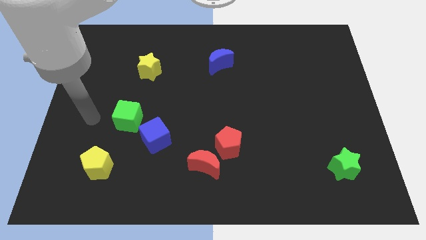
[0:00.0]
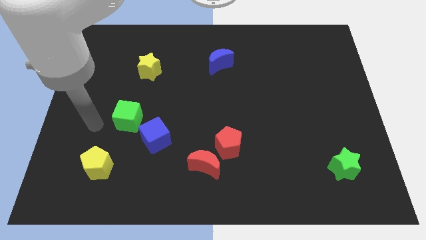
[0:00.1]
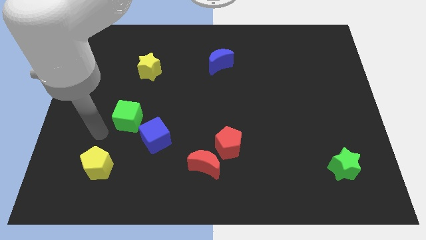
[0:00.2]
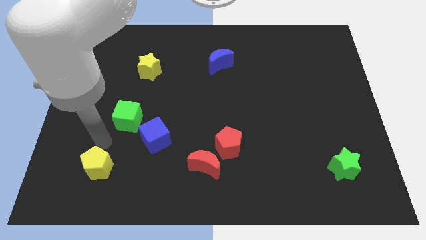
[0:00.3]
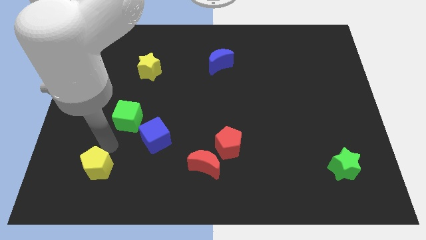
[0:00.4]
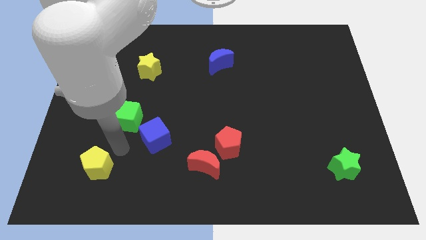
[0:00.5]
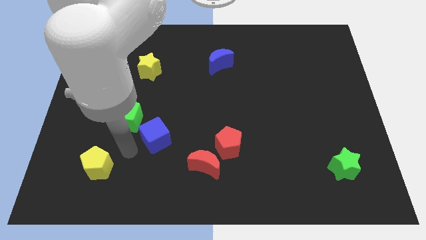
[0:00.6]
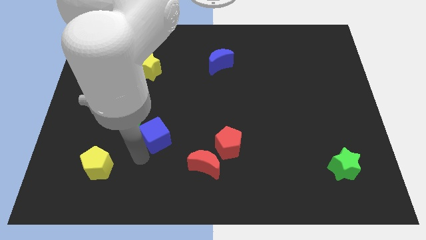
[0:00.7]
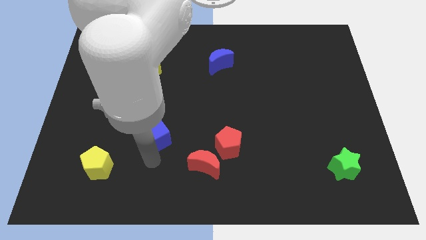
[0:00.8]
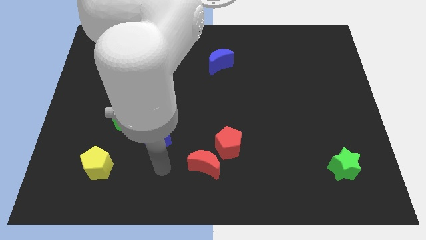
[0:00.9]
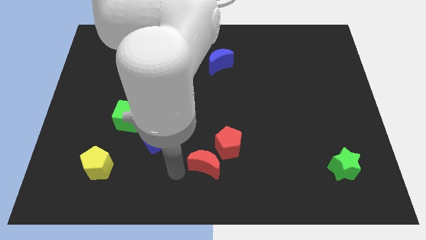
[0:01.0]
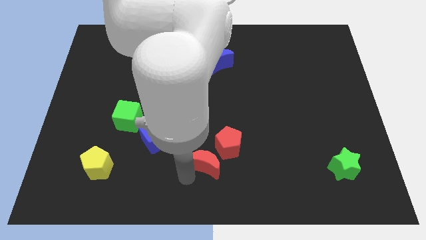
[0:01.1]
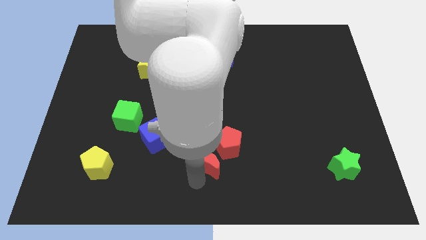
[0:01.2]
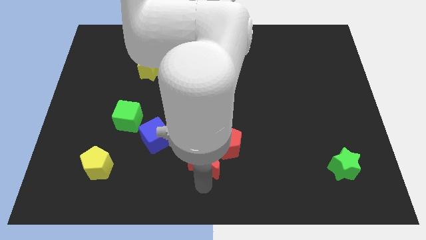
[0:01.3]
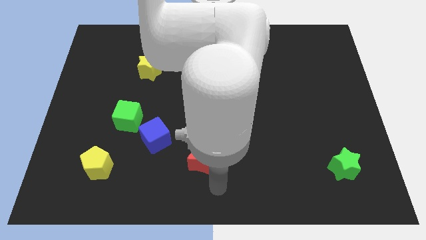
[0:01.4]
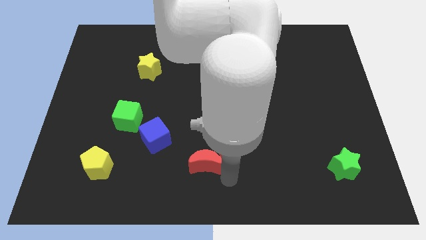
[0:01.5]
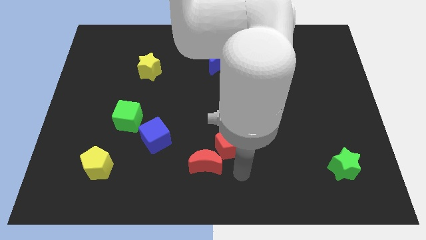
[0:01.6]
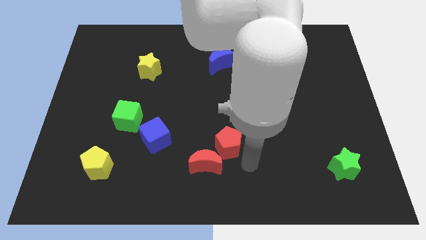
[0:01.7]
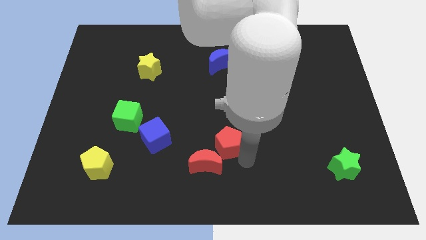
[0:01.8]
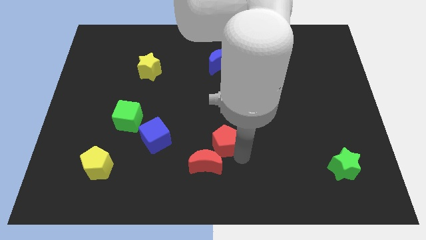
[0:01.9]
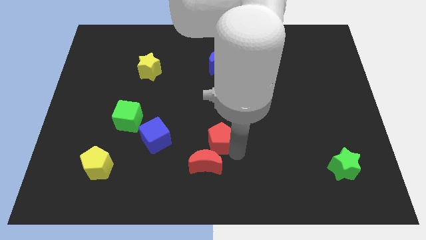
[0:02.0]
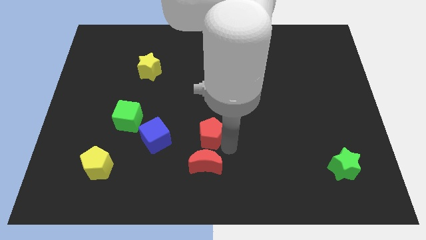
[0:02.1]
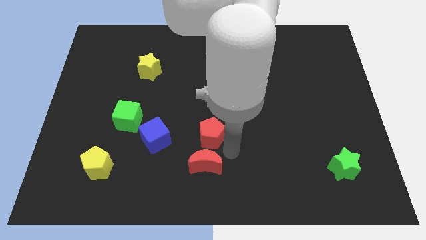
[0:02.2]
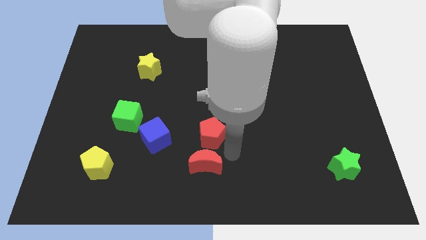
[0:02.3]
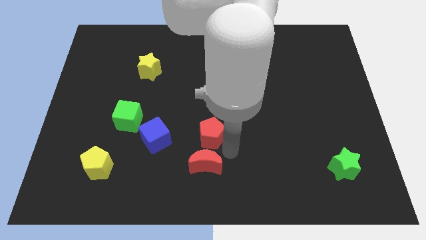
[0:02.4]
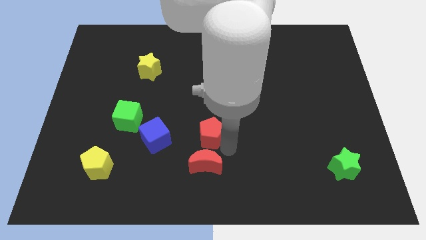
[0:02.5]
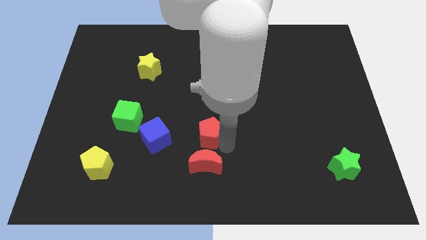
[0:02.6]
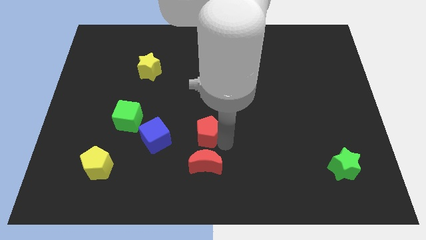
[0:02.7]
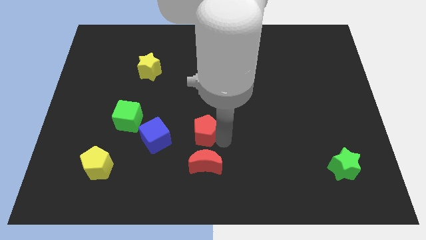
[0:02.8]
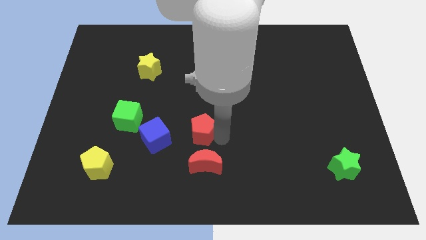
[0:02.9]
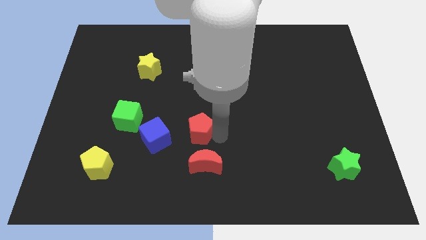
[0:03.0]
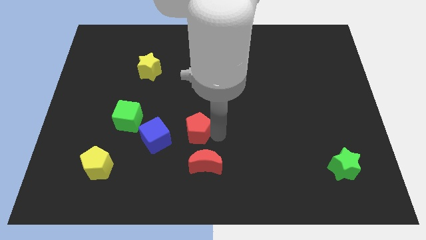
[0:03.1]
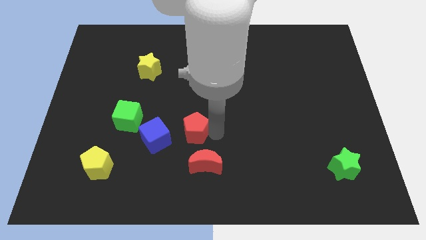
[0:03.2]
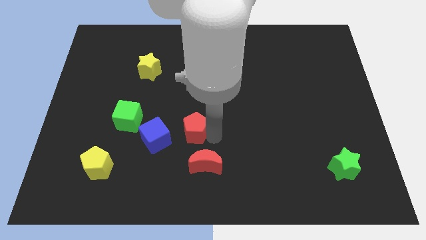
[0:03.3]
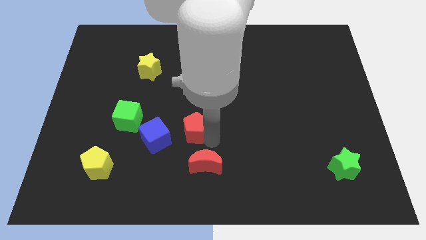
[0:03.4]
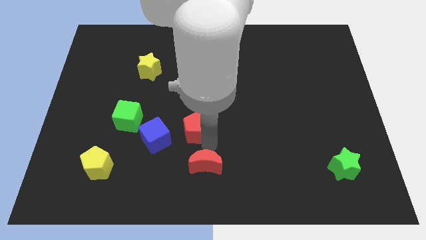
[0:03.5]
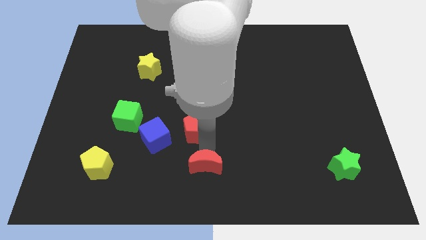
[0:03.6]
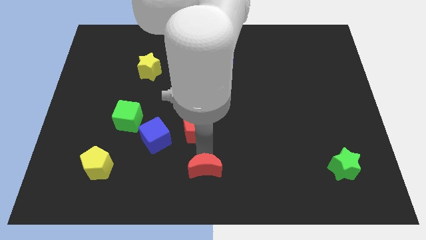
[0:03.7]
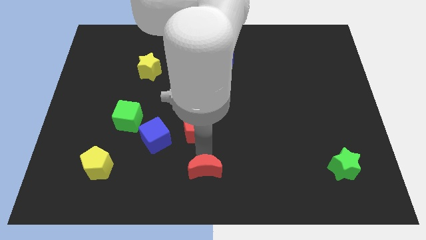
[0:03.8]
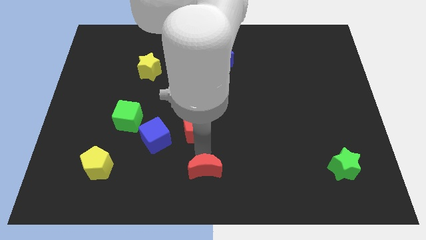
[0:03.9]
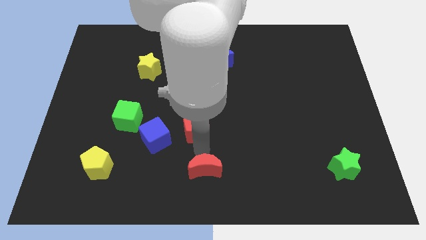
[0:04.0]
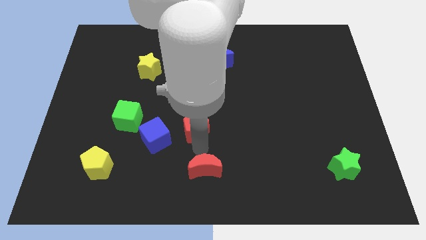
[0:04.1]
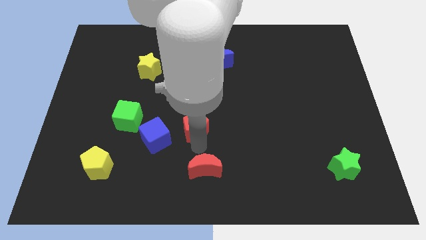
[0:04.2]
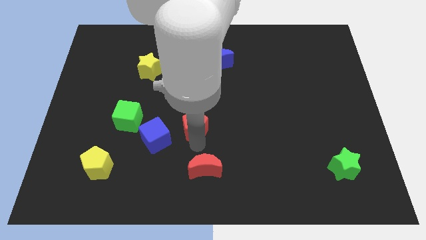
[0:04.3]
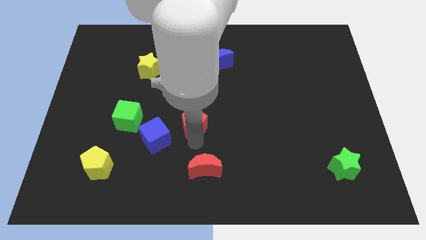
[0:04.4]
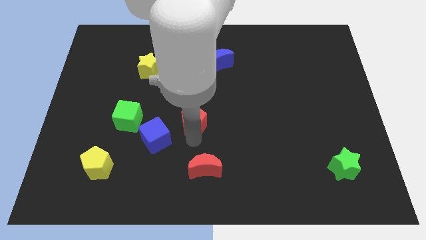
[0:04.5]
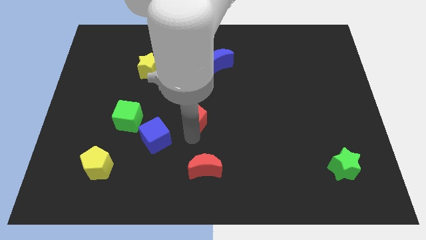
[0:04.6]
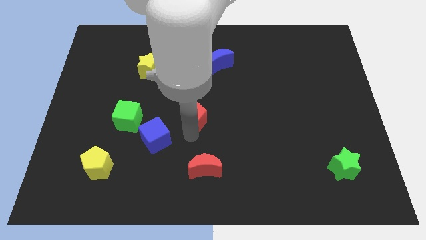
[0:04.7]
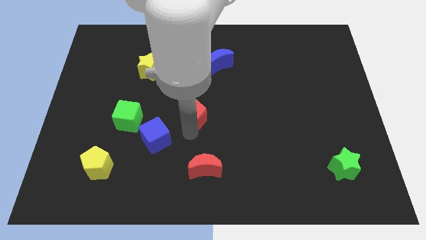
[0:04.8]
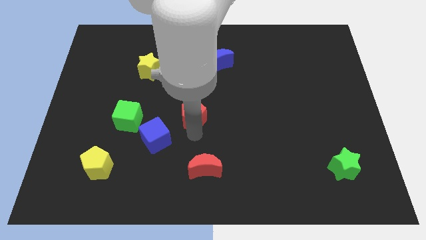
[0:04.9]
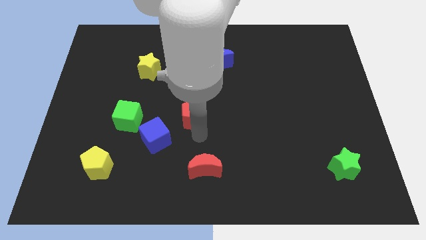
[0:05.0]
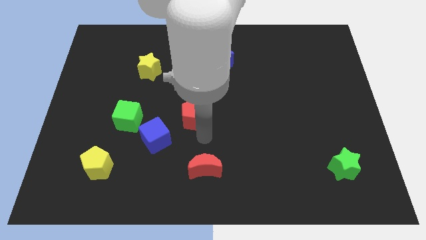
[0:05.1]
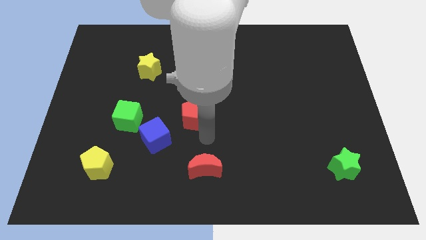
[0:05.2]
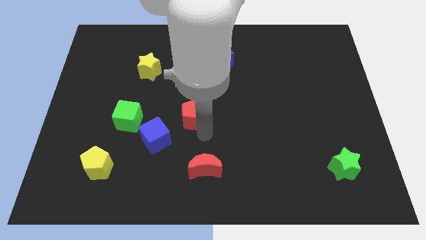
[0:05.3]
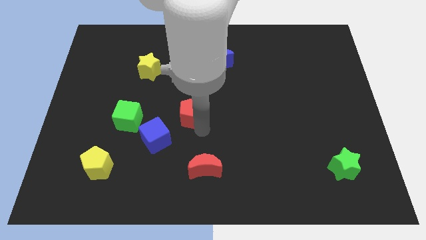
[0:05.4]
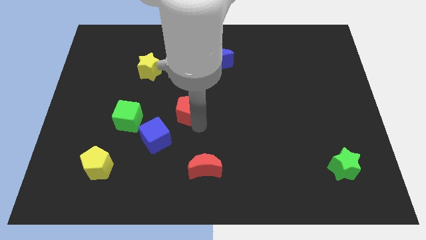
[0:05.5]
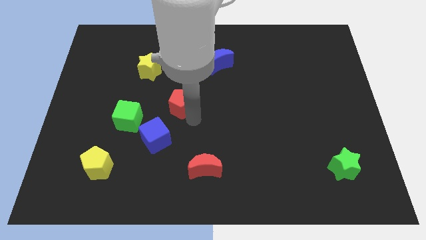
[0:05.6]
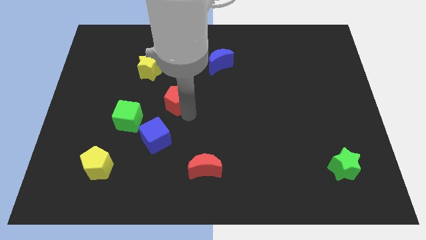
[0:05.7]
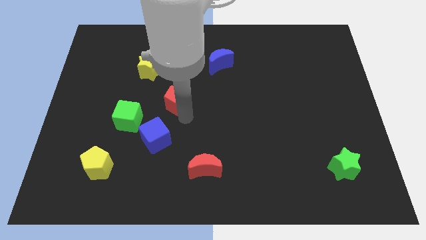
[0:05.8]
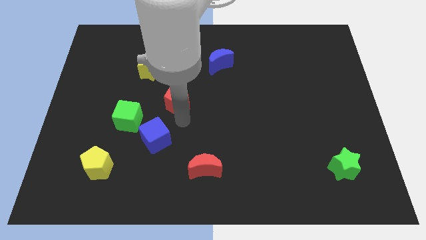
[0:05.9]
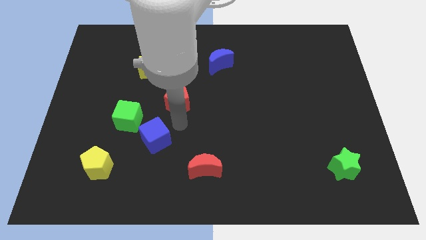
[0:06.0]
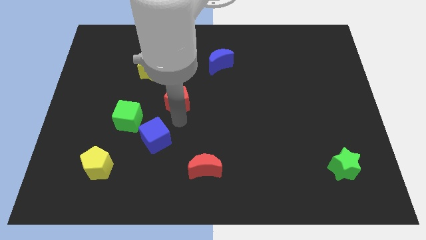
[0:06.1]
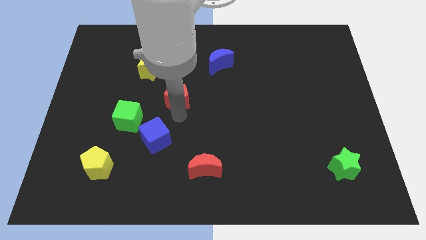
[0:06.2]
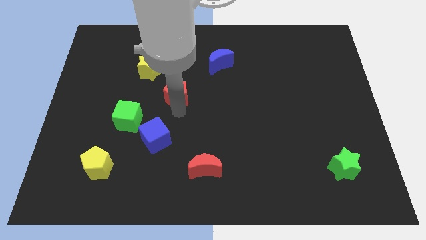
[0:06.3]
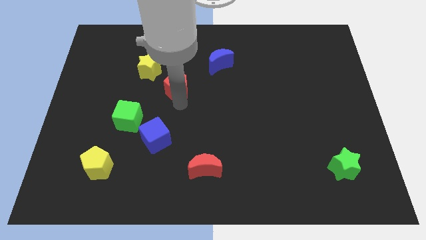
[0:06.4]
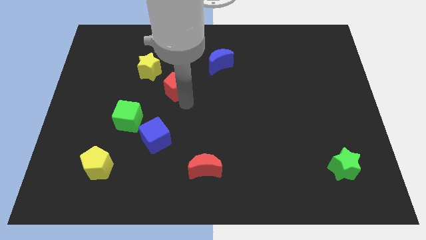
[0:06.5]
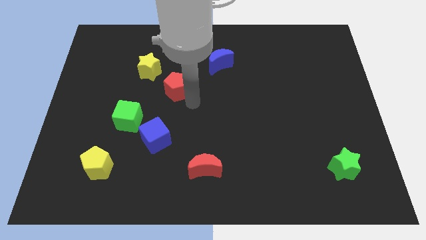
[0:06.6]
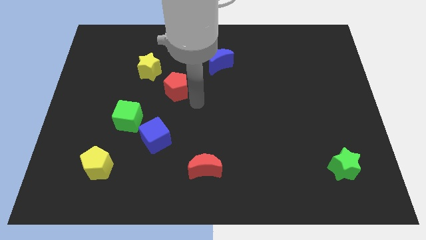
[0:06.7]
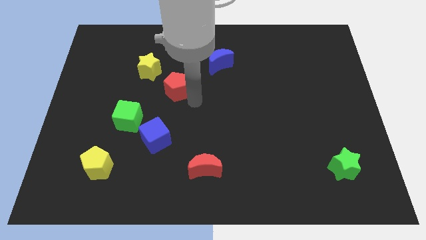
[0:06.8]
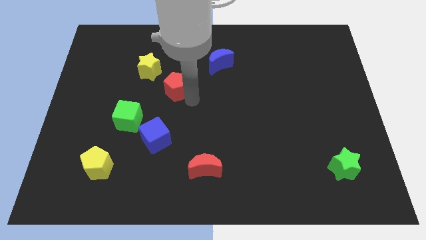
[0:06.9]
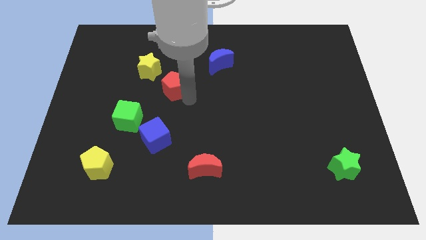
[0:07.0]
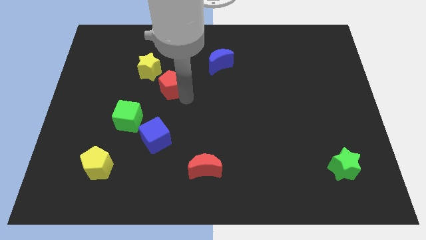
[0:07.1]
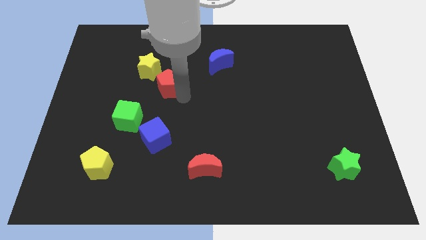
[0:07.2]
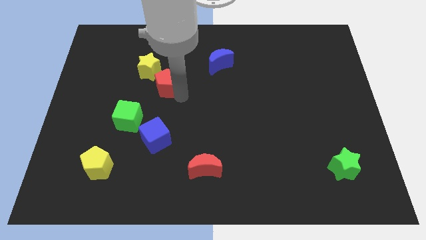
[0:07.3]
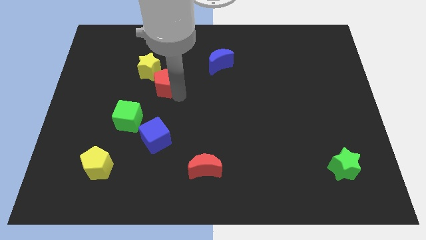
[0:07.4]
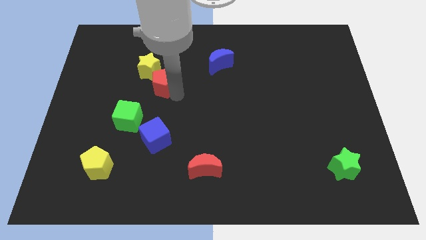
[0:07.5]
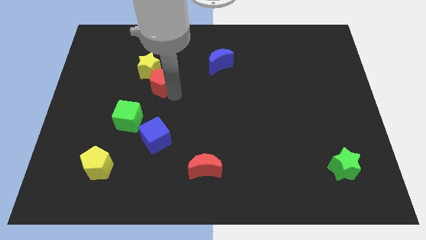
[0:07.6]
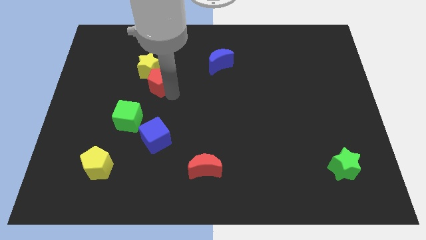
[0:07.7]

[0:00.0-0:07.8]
slide the red pentagon to the yellow star
